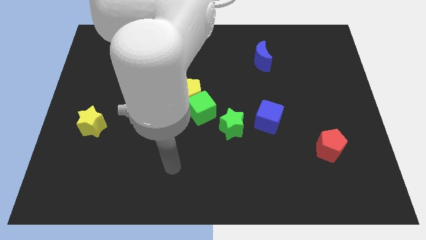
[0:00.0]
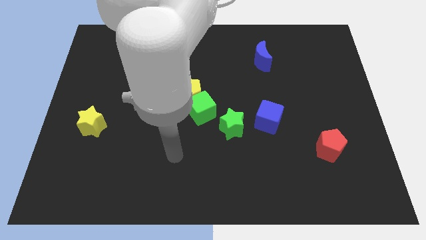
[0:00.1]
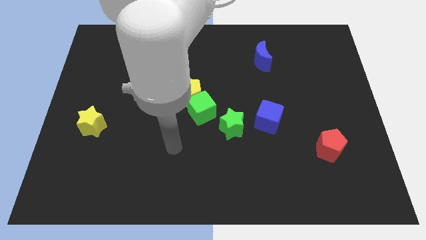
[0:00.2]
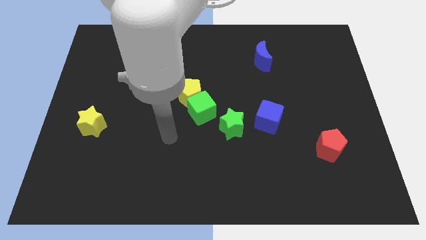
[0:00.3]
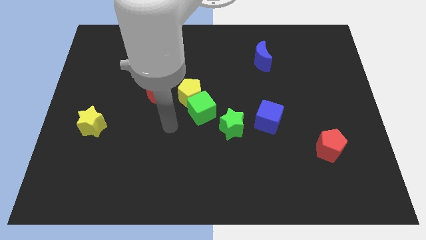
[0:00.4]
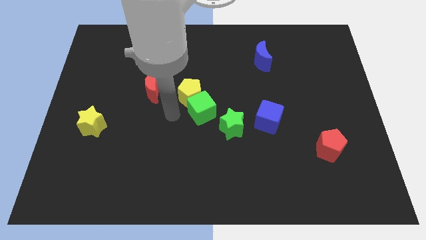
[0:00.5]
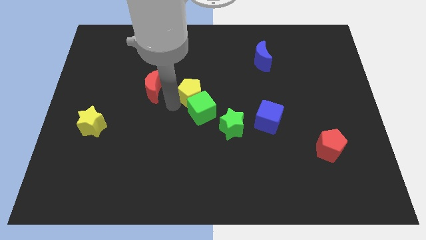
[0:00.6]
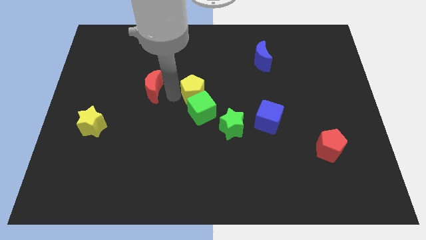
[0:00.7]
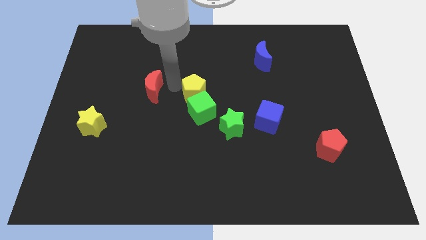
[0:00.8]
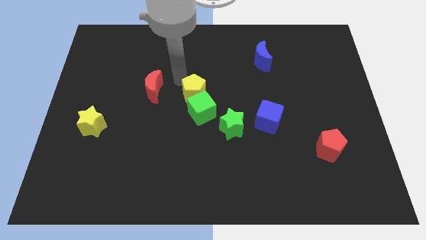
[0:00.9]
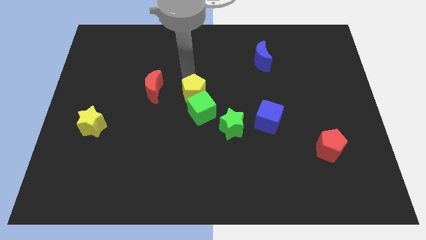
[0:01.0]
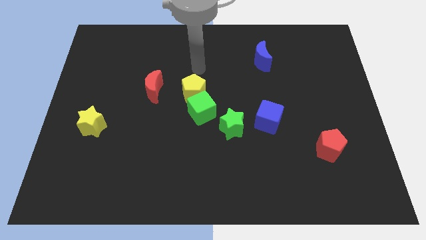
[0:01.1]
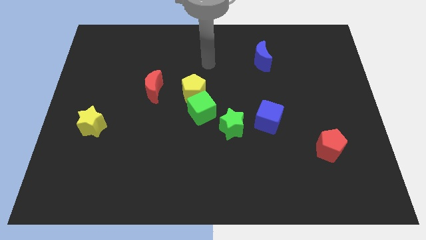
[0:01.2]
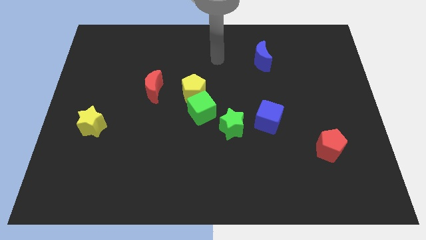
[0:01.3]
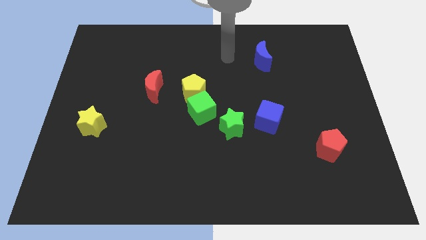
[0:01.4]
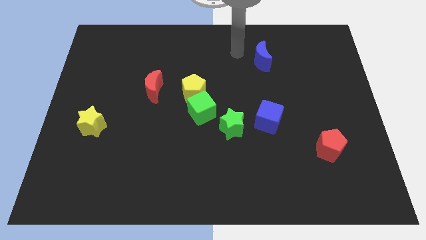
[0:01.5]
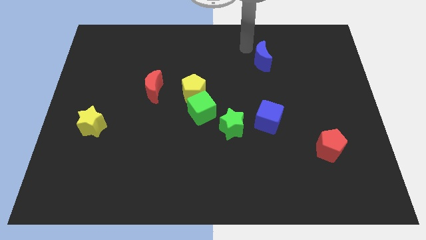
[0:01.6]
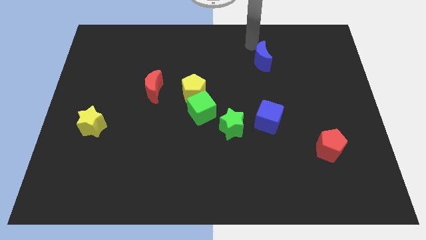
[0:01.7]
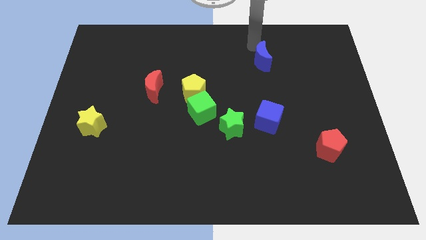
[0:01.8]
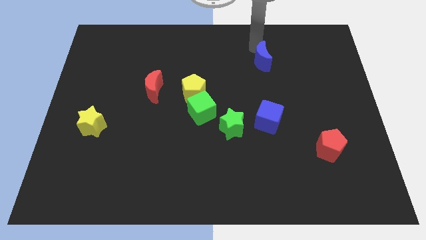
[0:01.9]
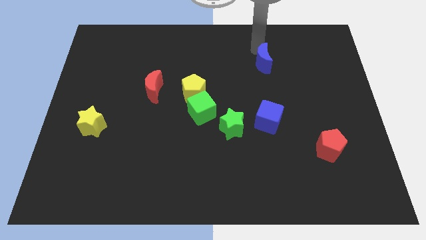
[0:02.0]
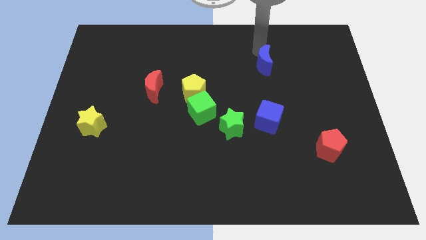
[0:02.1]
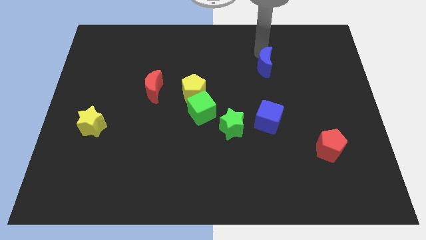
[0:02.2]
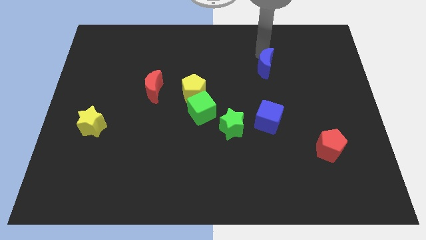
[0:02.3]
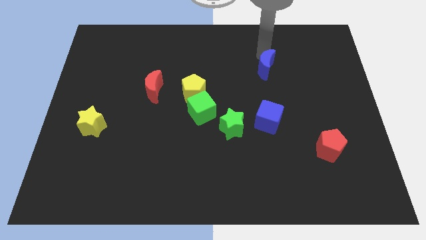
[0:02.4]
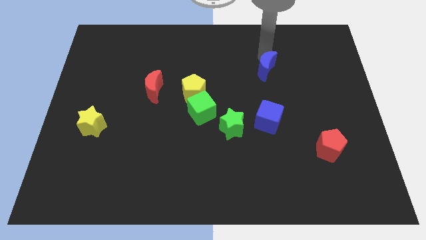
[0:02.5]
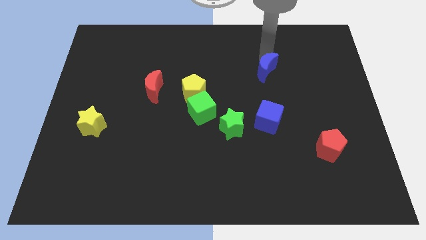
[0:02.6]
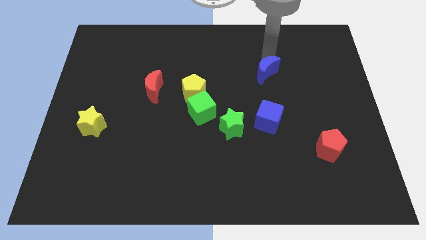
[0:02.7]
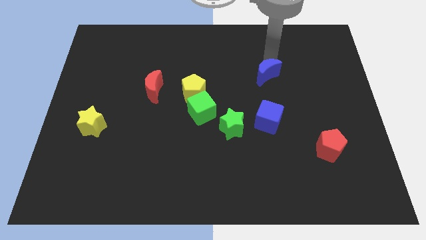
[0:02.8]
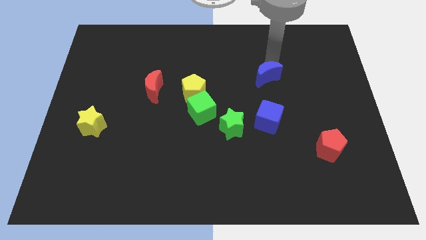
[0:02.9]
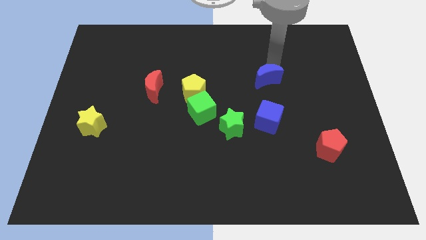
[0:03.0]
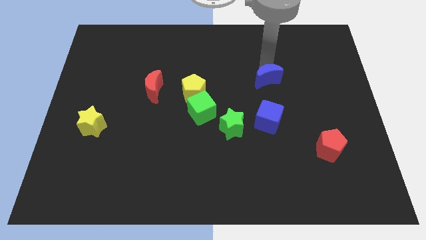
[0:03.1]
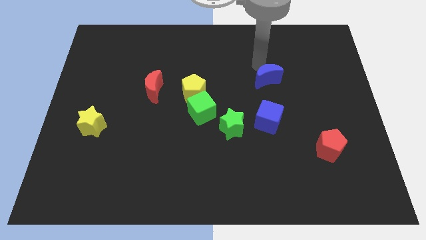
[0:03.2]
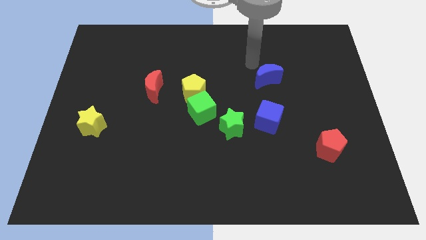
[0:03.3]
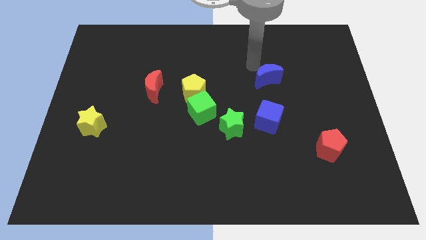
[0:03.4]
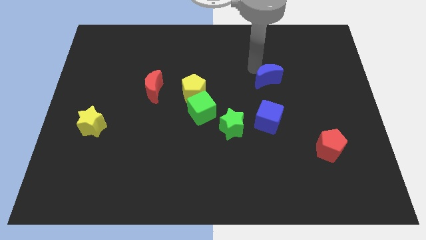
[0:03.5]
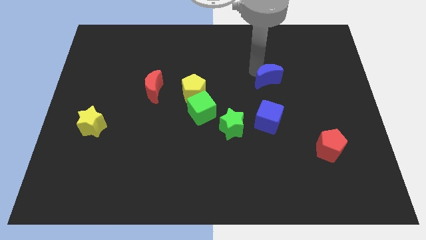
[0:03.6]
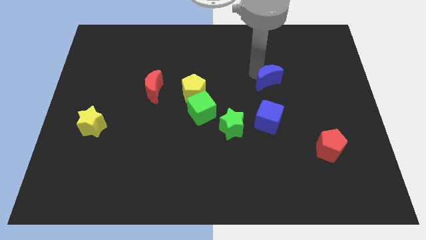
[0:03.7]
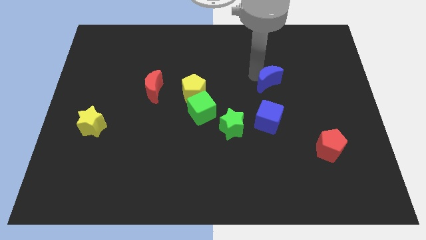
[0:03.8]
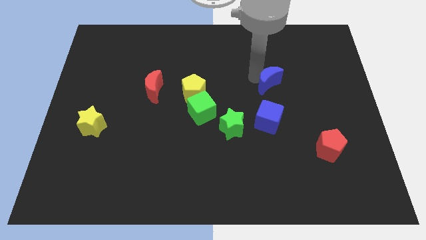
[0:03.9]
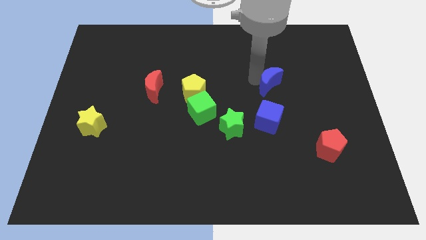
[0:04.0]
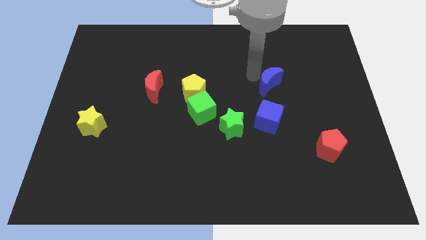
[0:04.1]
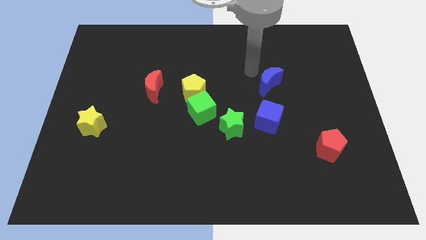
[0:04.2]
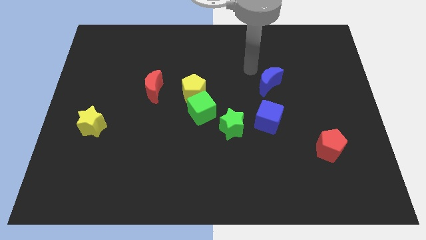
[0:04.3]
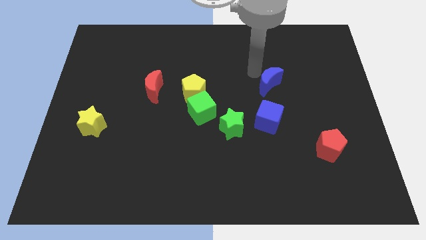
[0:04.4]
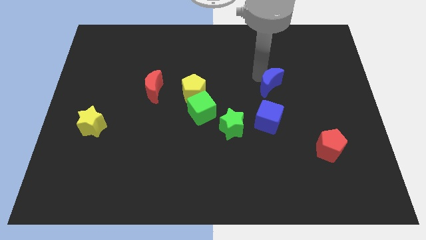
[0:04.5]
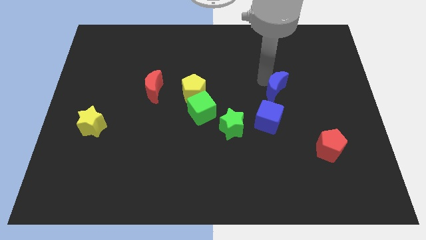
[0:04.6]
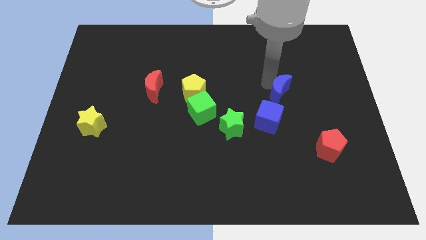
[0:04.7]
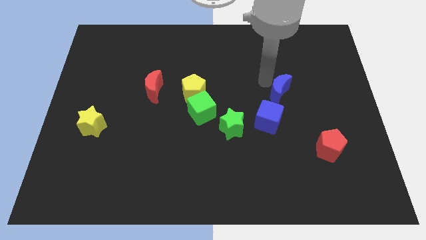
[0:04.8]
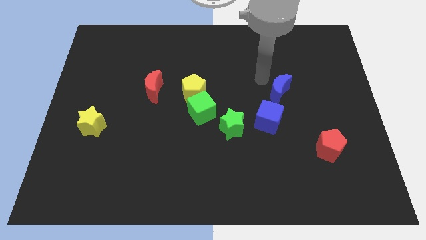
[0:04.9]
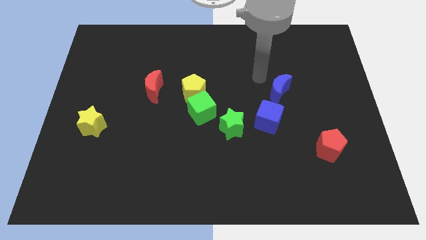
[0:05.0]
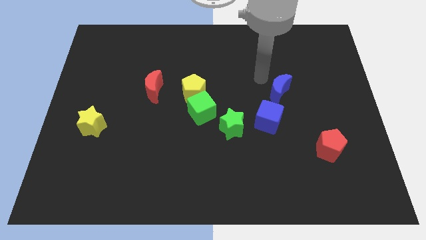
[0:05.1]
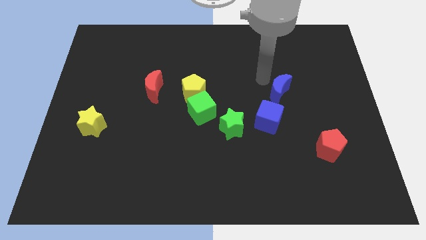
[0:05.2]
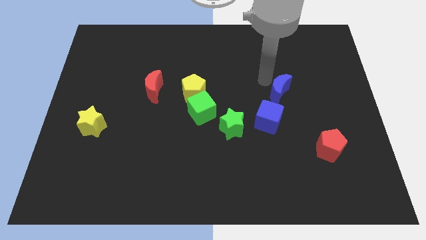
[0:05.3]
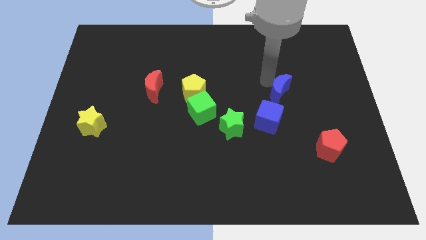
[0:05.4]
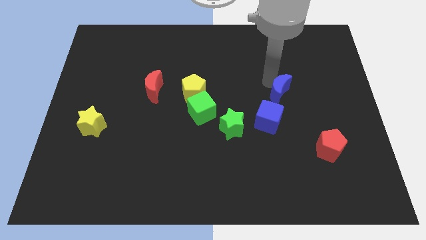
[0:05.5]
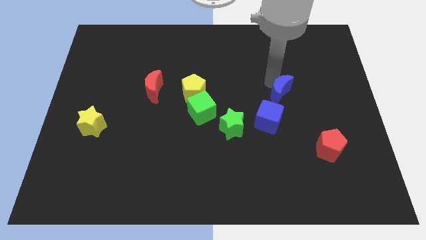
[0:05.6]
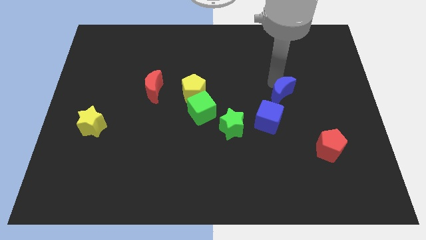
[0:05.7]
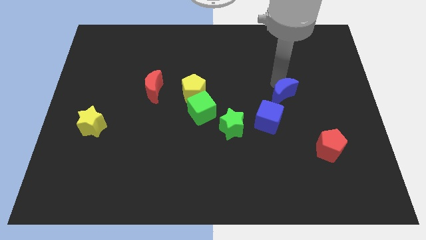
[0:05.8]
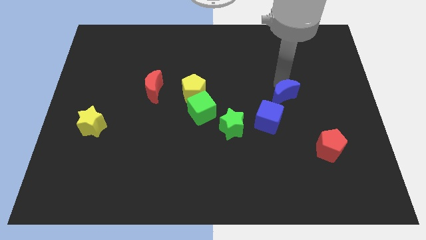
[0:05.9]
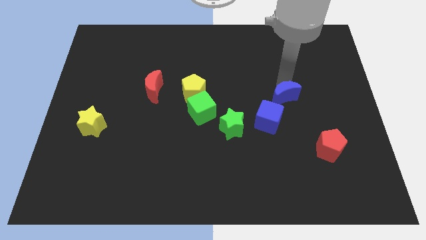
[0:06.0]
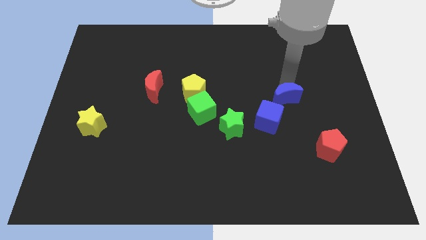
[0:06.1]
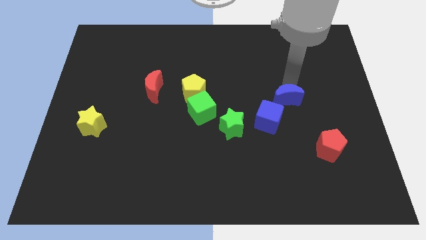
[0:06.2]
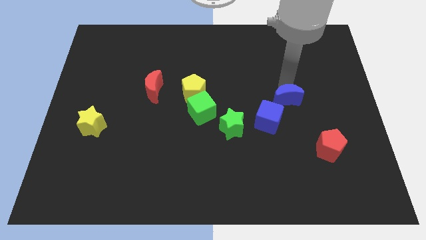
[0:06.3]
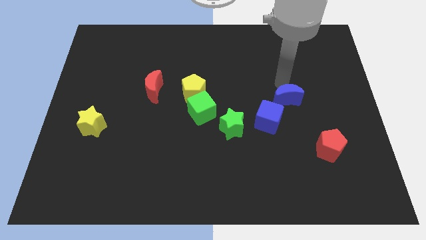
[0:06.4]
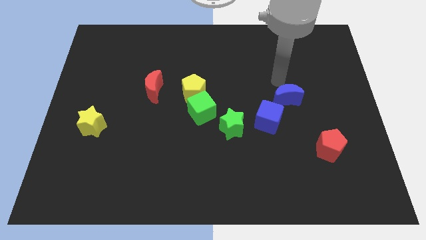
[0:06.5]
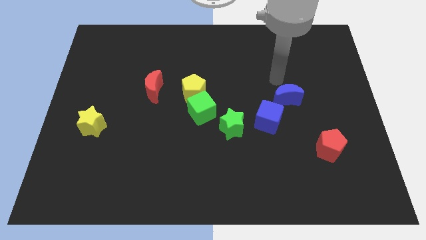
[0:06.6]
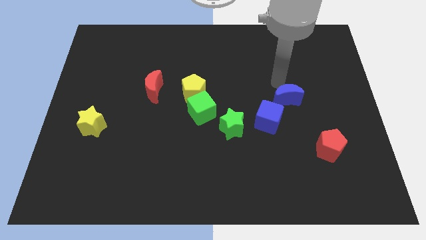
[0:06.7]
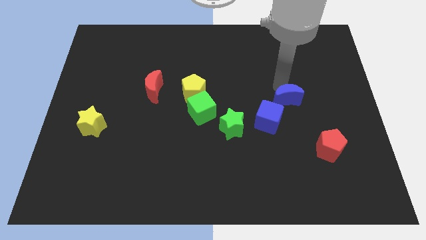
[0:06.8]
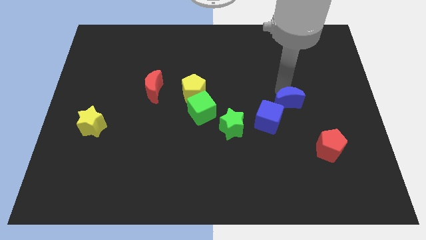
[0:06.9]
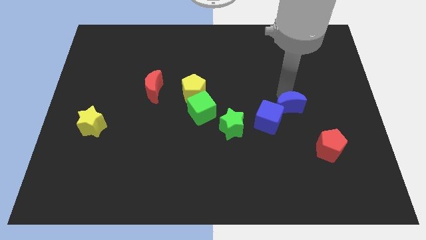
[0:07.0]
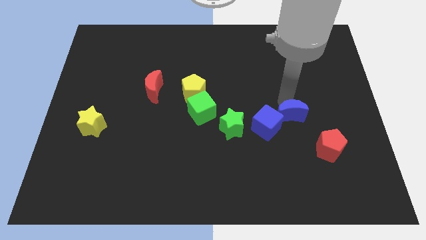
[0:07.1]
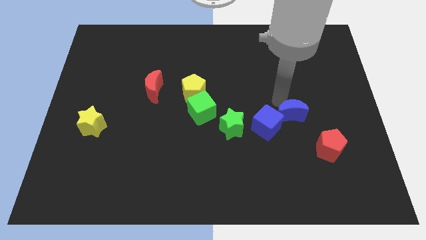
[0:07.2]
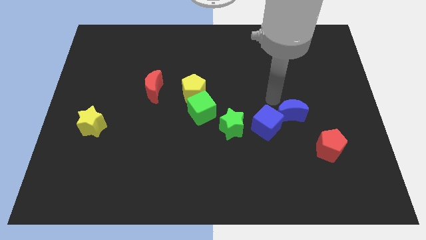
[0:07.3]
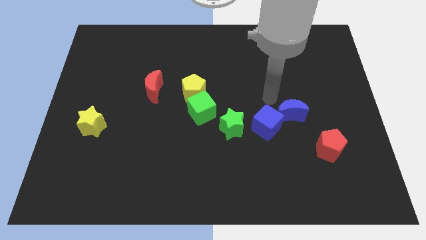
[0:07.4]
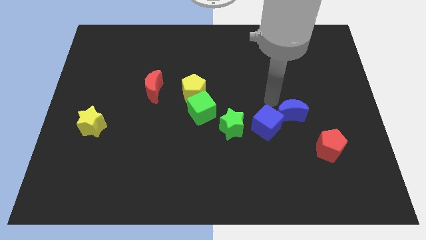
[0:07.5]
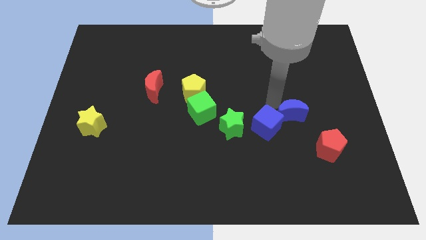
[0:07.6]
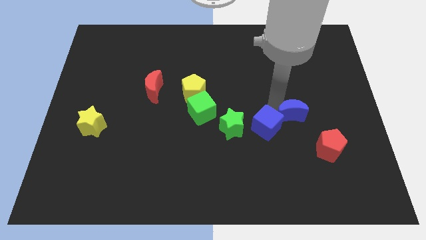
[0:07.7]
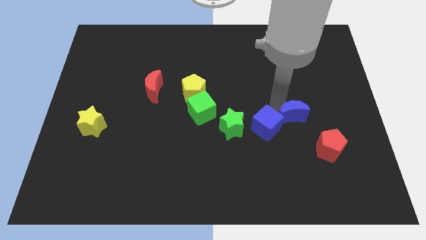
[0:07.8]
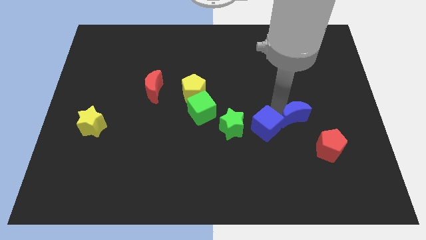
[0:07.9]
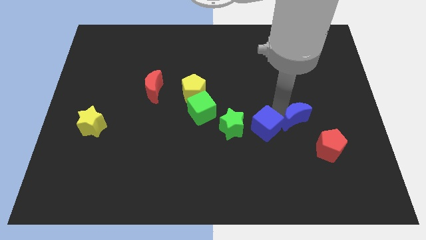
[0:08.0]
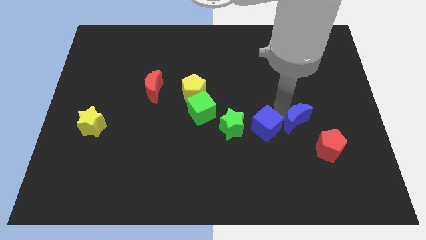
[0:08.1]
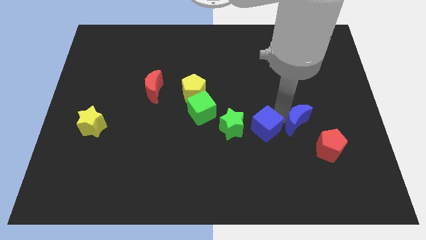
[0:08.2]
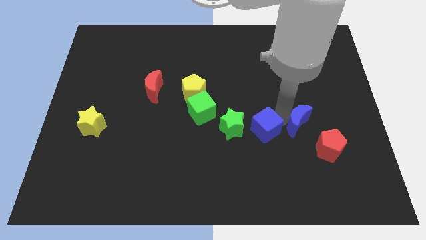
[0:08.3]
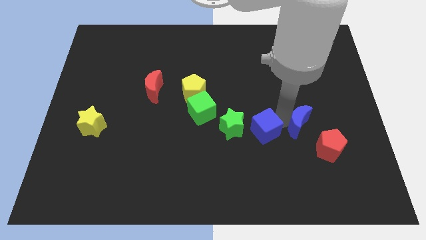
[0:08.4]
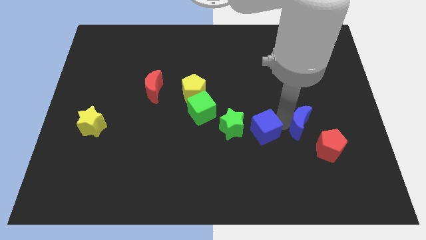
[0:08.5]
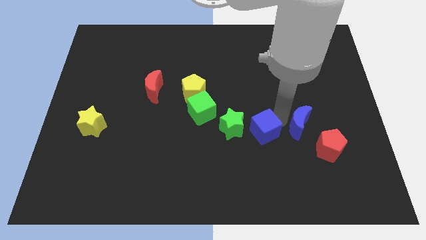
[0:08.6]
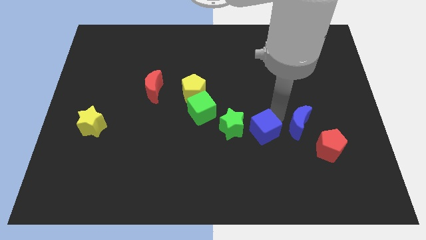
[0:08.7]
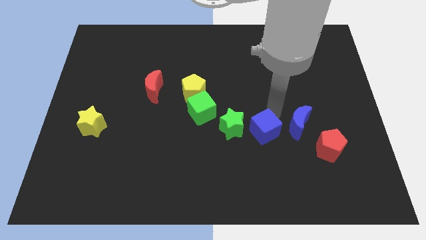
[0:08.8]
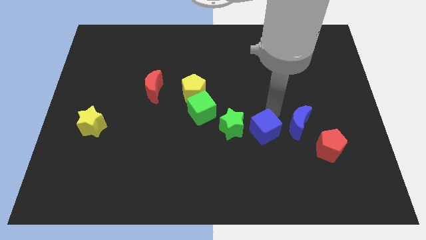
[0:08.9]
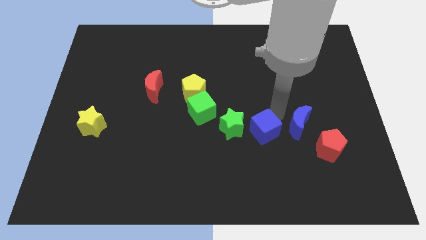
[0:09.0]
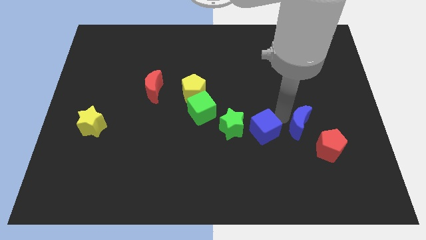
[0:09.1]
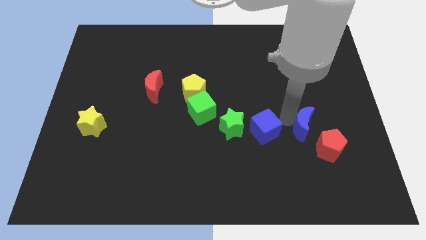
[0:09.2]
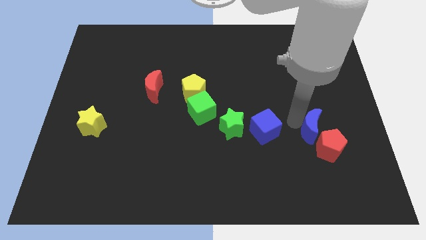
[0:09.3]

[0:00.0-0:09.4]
push the blue moon next to the red pentagon
